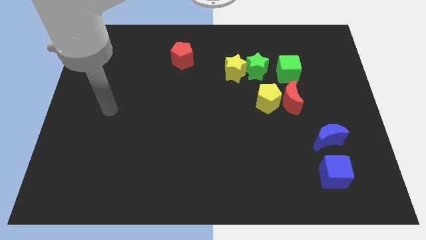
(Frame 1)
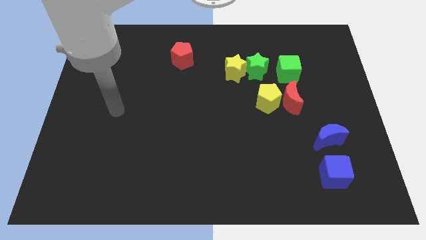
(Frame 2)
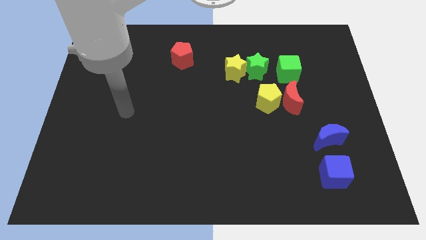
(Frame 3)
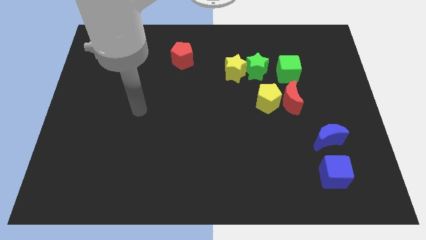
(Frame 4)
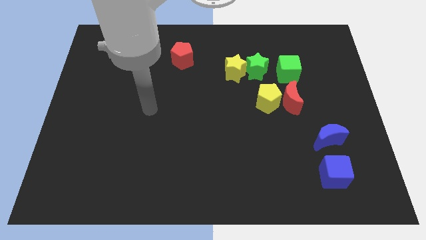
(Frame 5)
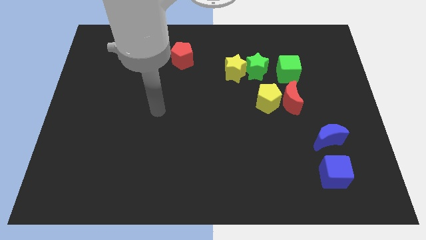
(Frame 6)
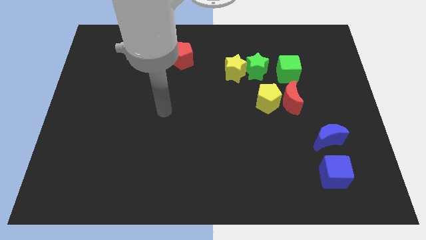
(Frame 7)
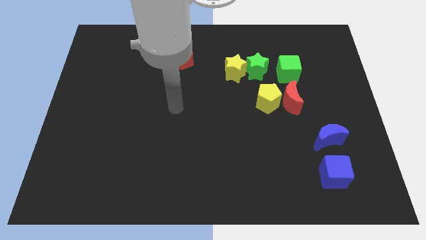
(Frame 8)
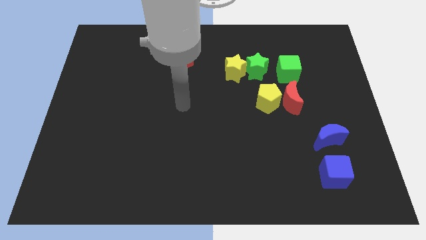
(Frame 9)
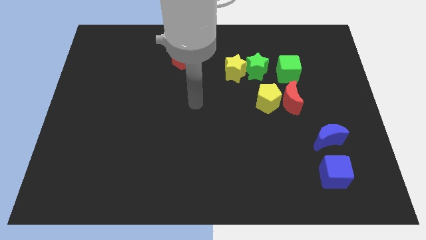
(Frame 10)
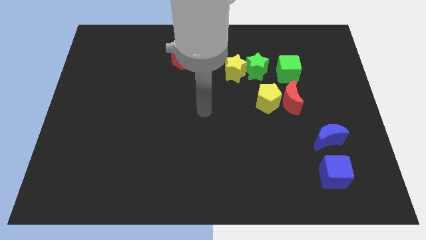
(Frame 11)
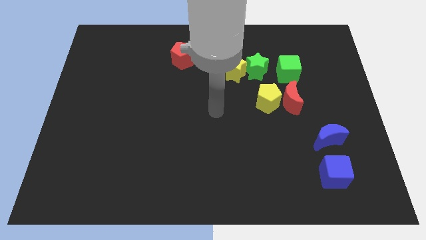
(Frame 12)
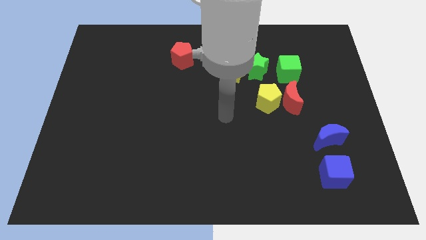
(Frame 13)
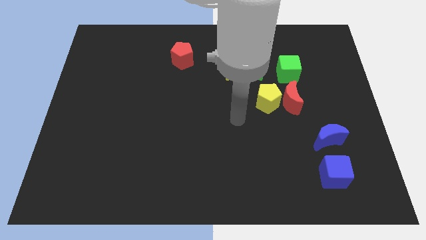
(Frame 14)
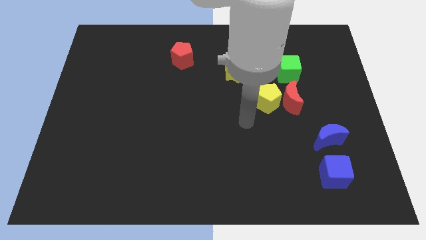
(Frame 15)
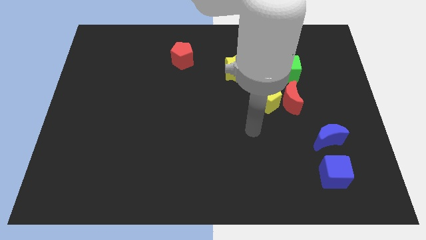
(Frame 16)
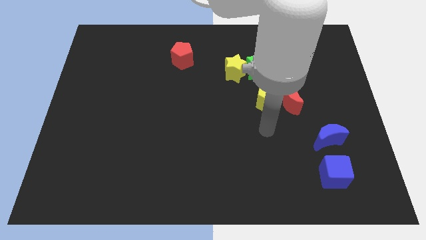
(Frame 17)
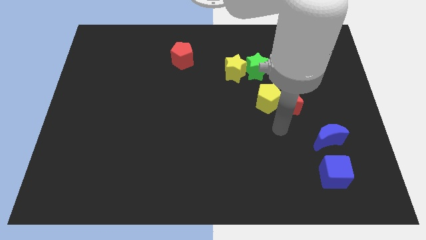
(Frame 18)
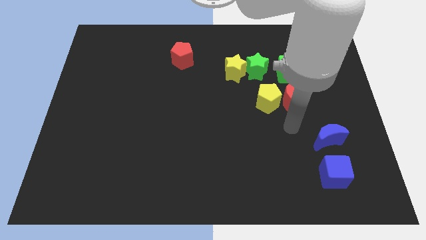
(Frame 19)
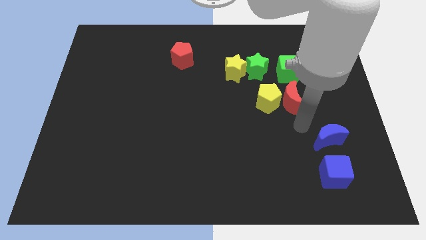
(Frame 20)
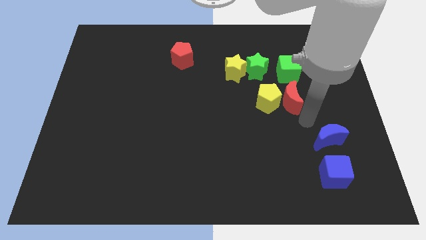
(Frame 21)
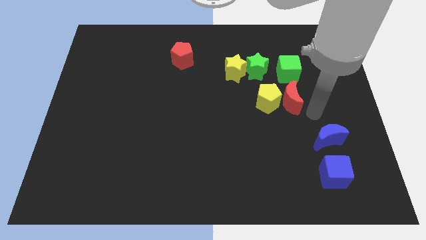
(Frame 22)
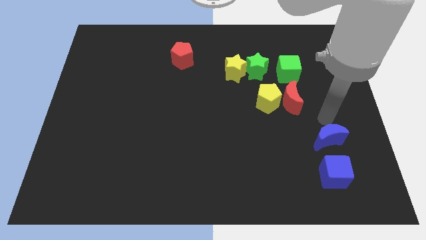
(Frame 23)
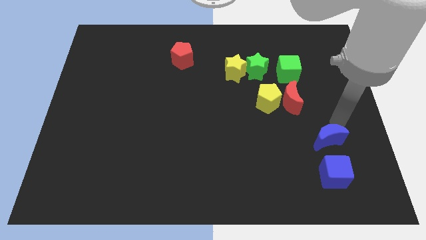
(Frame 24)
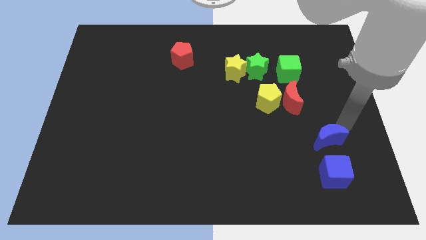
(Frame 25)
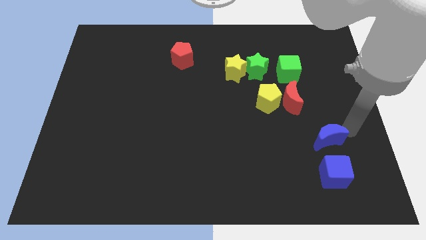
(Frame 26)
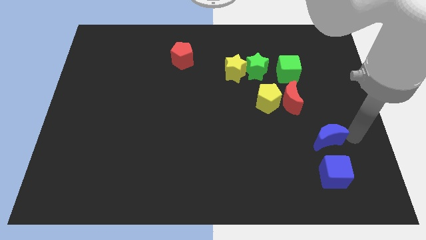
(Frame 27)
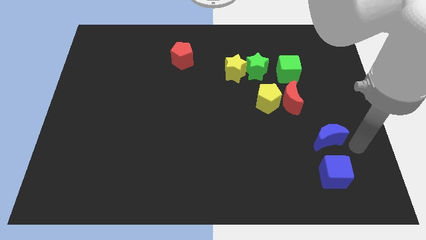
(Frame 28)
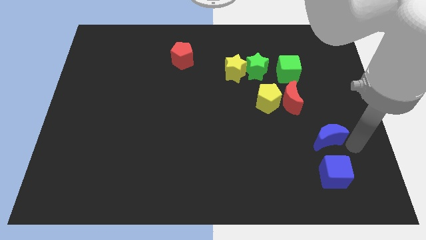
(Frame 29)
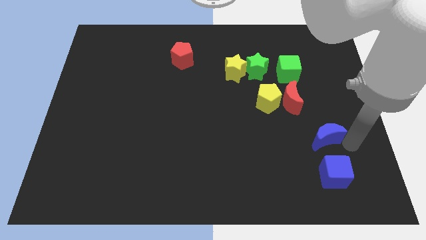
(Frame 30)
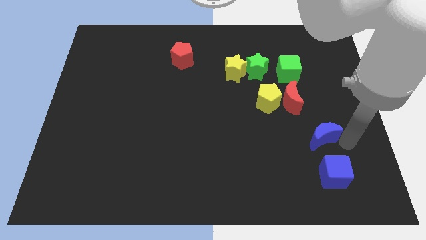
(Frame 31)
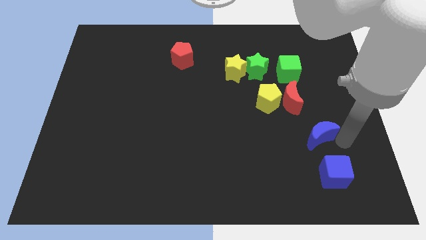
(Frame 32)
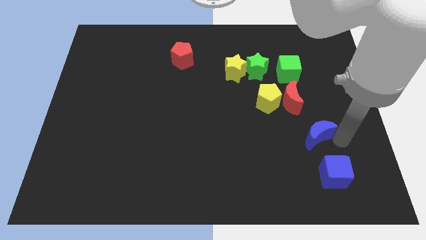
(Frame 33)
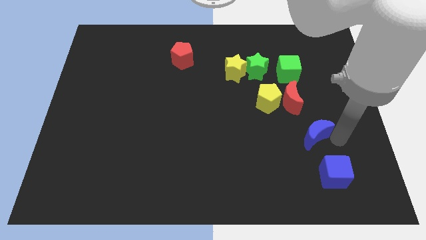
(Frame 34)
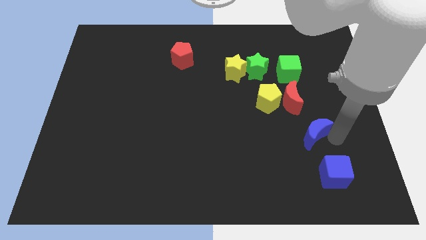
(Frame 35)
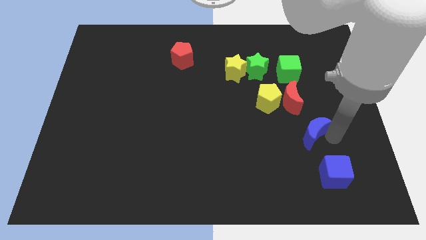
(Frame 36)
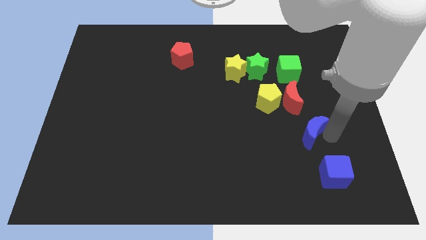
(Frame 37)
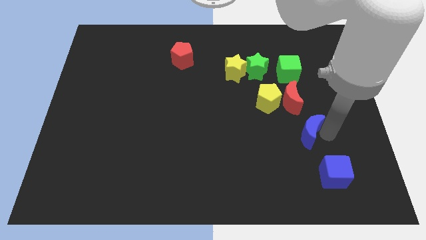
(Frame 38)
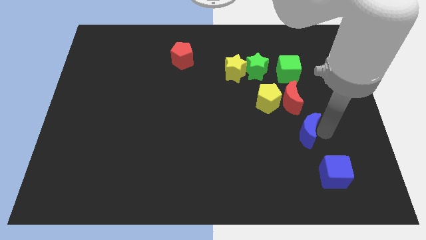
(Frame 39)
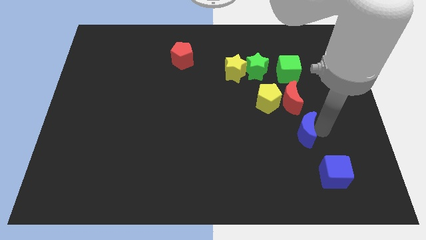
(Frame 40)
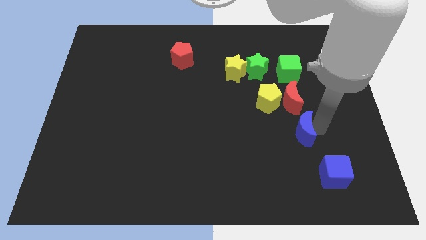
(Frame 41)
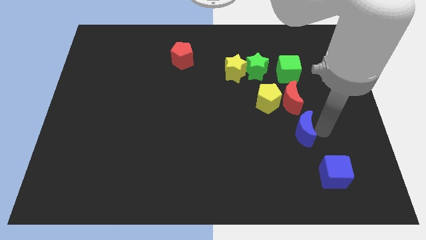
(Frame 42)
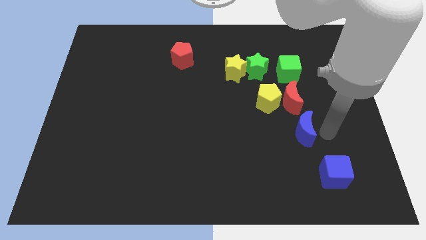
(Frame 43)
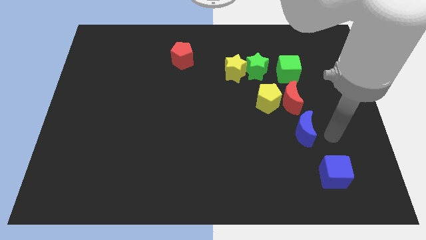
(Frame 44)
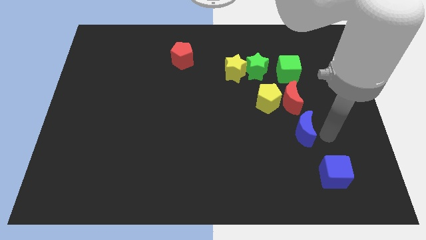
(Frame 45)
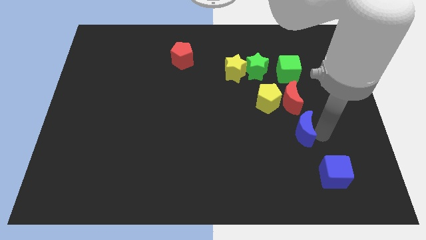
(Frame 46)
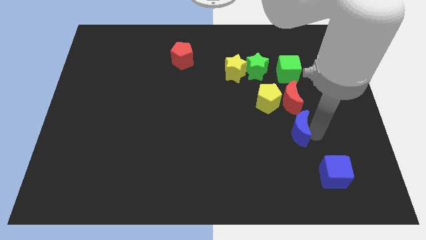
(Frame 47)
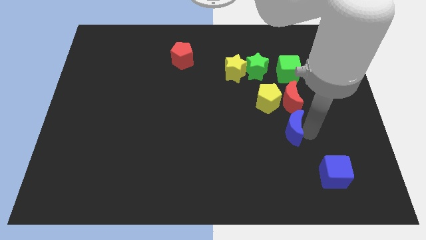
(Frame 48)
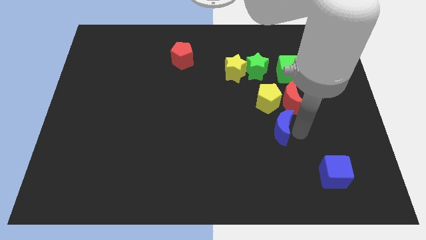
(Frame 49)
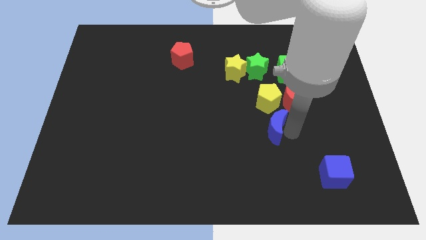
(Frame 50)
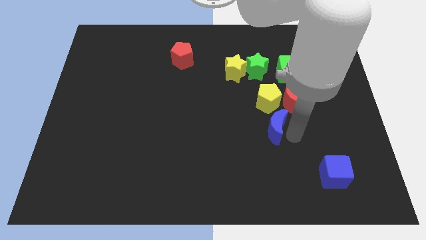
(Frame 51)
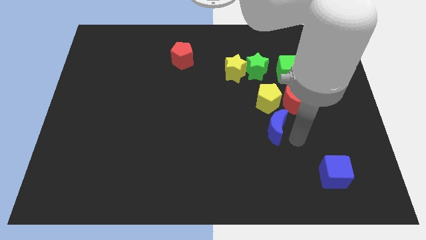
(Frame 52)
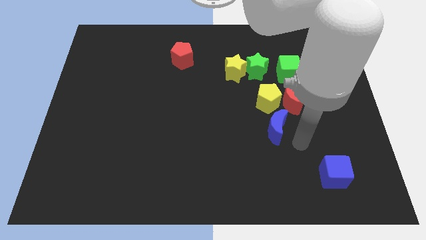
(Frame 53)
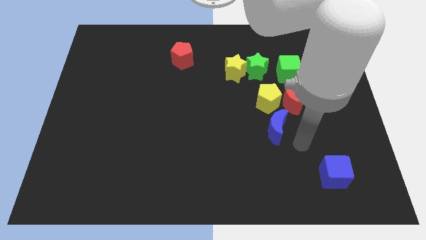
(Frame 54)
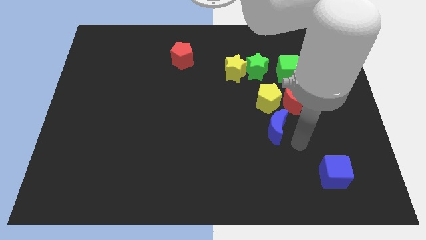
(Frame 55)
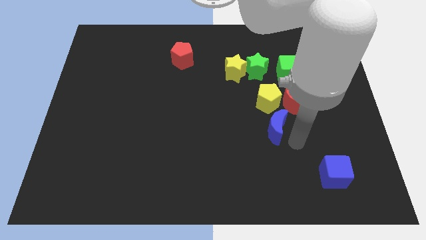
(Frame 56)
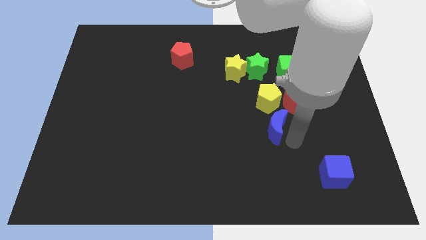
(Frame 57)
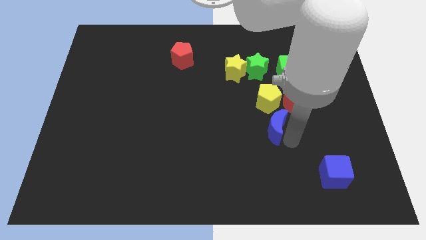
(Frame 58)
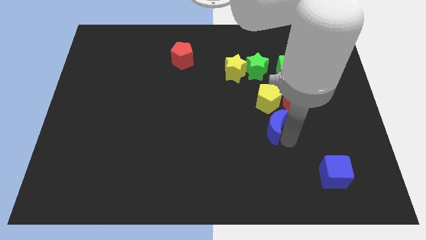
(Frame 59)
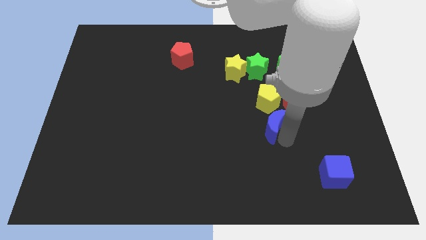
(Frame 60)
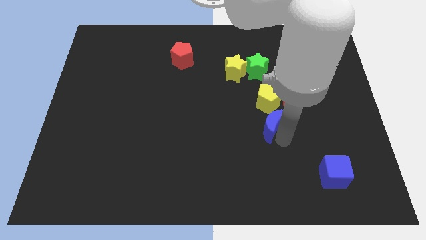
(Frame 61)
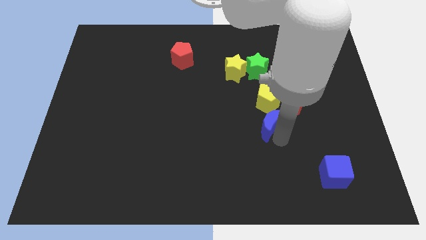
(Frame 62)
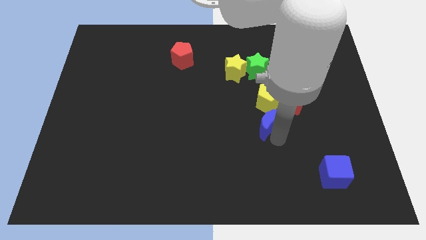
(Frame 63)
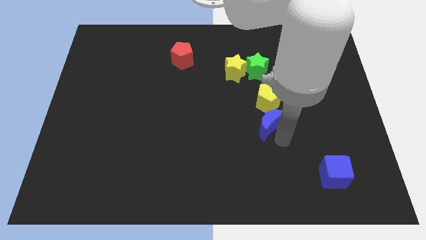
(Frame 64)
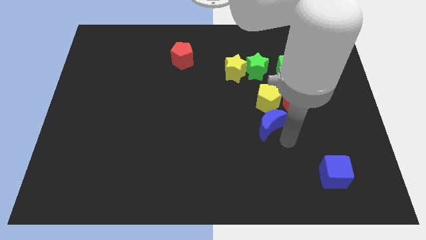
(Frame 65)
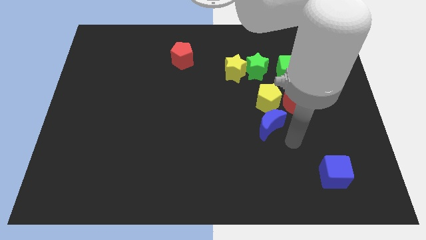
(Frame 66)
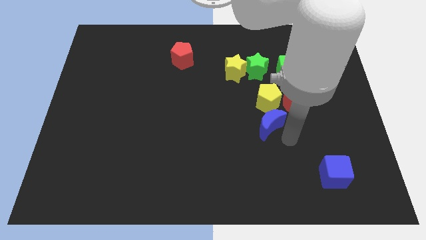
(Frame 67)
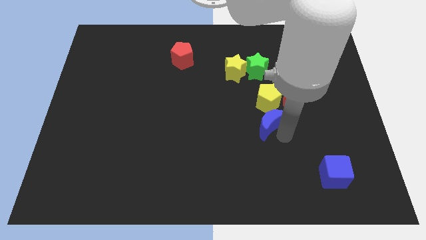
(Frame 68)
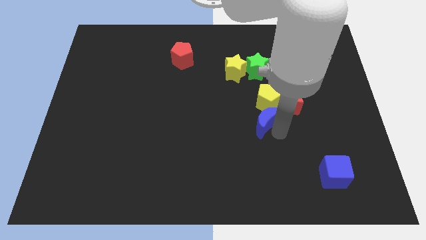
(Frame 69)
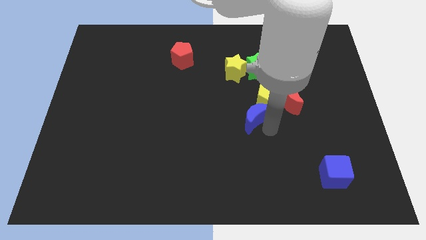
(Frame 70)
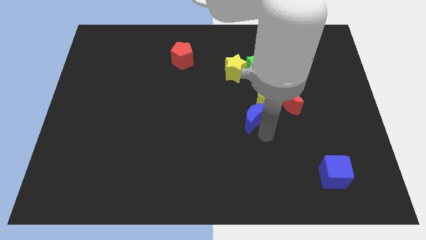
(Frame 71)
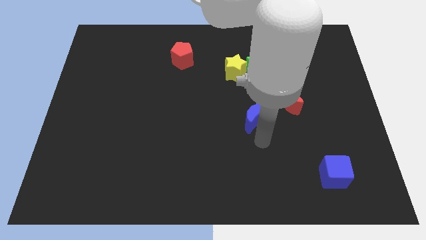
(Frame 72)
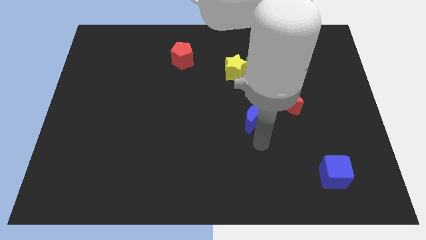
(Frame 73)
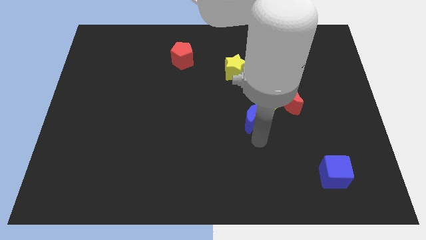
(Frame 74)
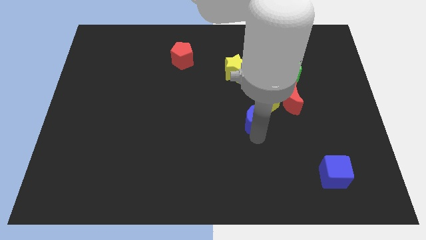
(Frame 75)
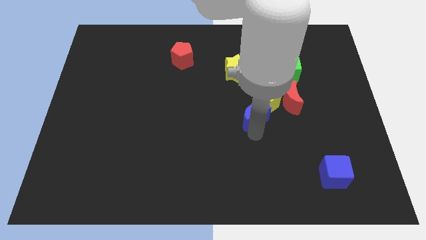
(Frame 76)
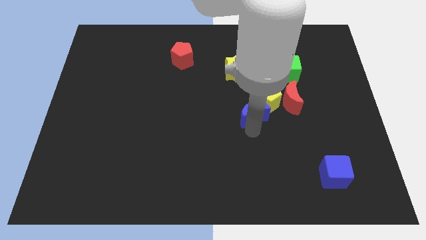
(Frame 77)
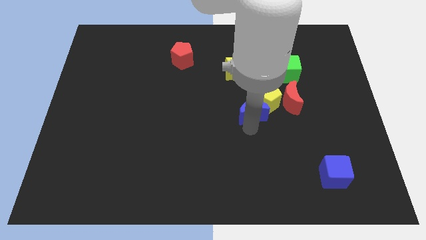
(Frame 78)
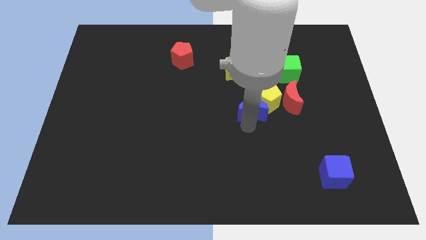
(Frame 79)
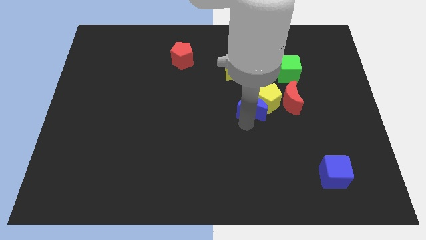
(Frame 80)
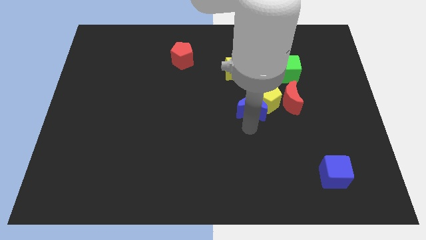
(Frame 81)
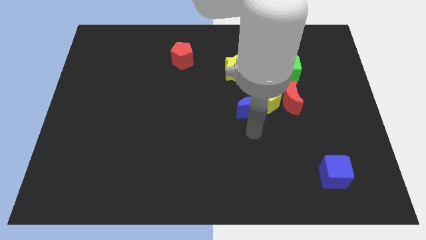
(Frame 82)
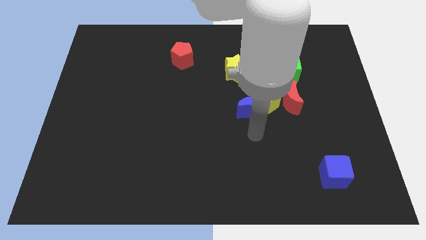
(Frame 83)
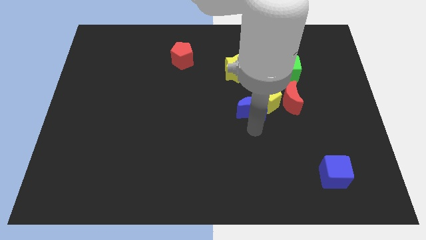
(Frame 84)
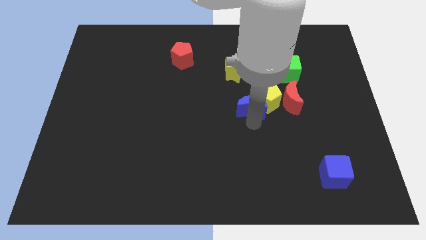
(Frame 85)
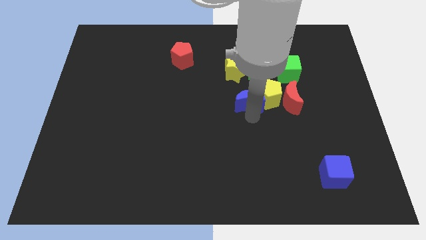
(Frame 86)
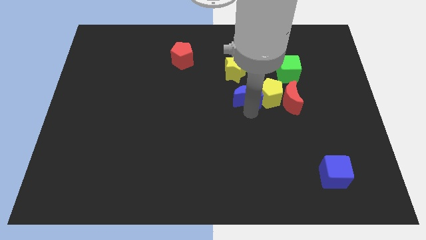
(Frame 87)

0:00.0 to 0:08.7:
push the blue moon to the bottom right side of the yellow star
